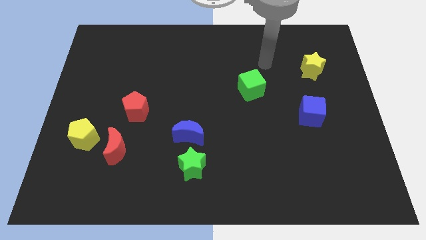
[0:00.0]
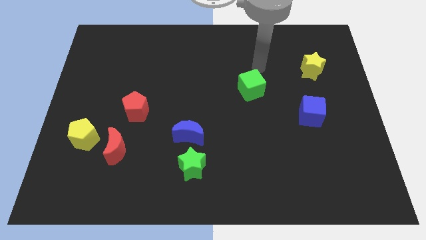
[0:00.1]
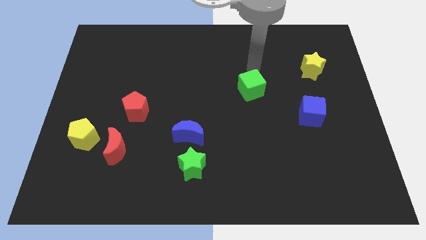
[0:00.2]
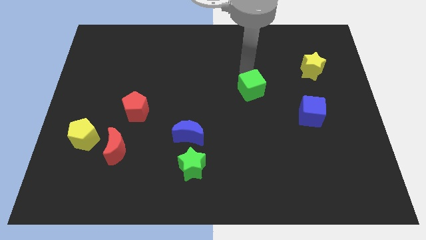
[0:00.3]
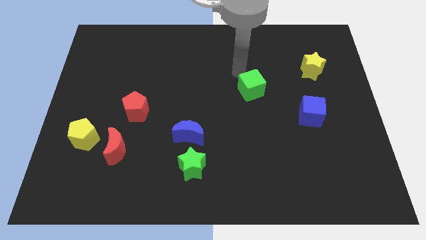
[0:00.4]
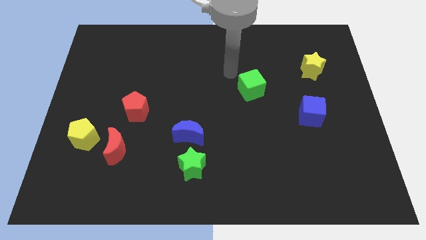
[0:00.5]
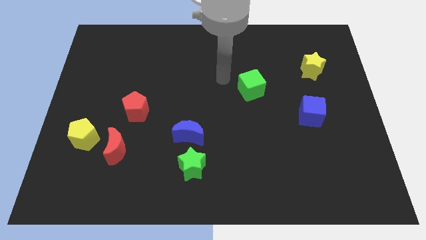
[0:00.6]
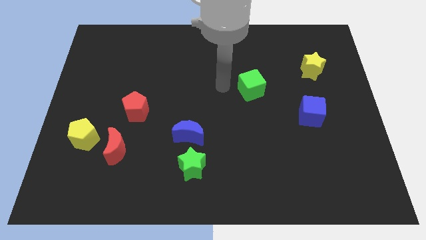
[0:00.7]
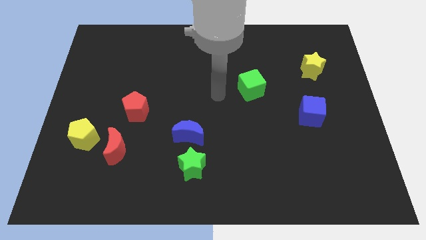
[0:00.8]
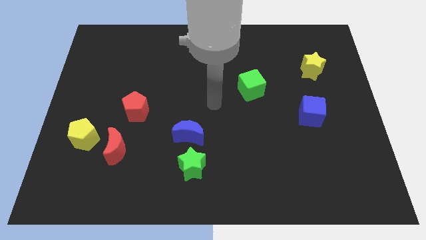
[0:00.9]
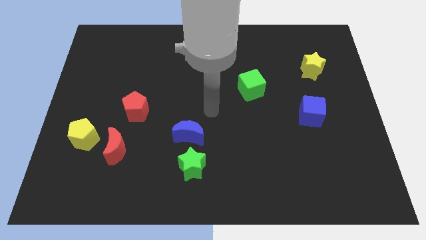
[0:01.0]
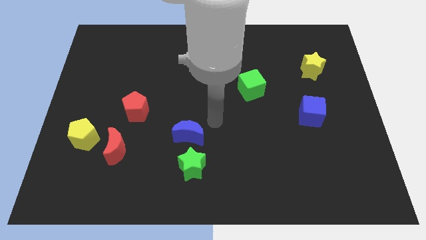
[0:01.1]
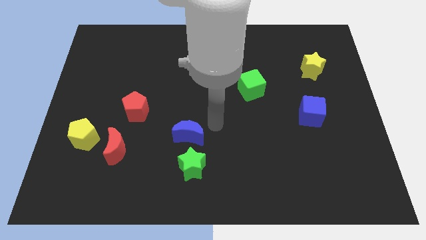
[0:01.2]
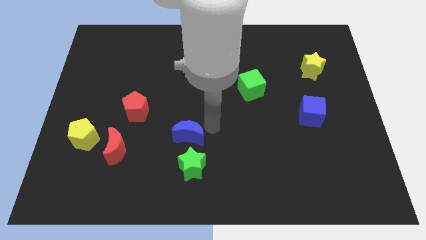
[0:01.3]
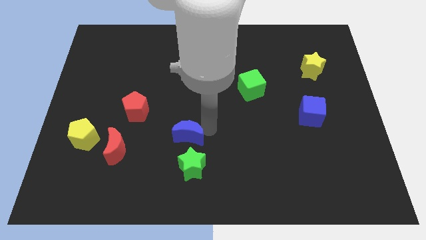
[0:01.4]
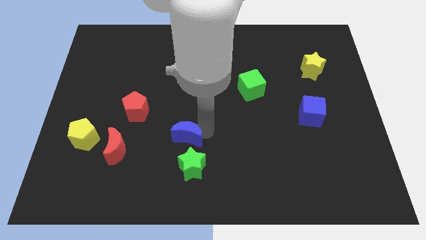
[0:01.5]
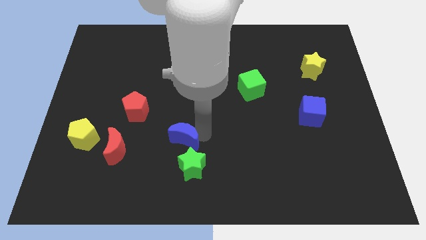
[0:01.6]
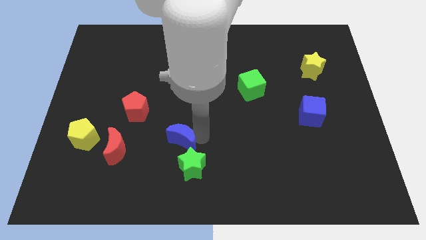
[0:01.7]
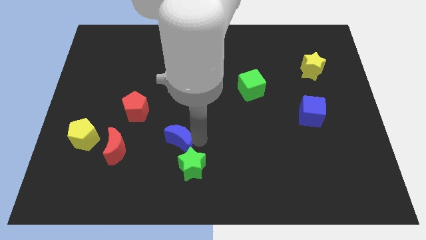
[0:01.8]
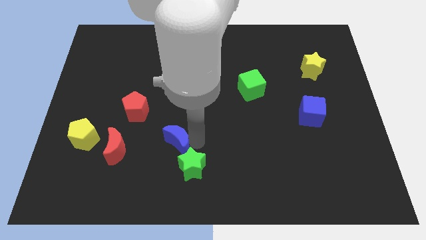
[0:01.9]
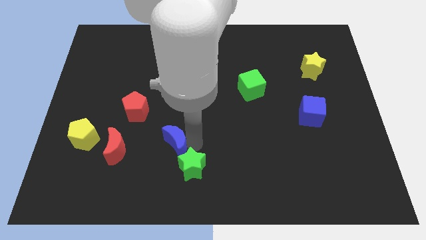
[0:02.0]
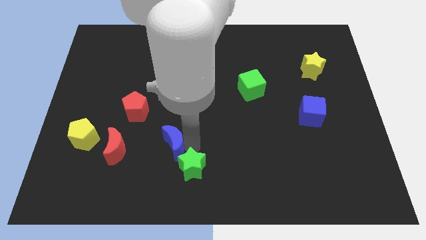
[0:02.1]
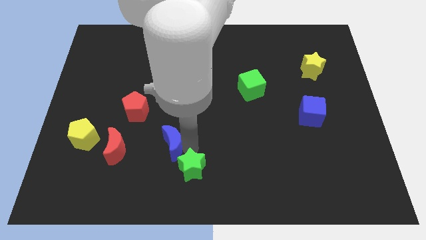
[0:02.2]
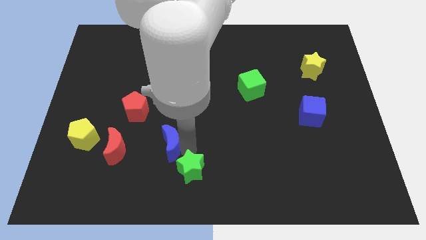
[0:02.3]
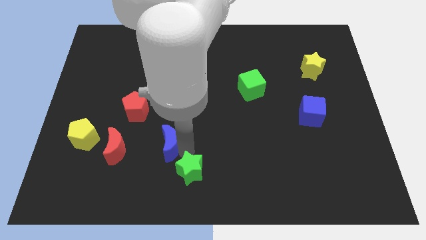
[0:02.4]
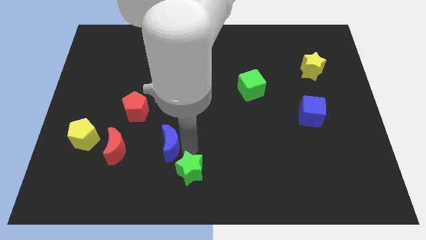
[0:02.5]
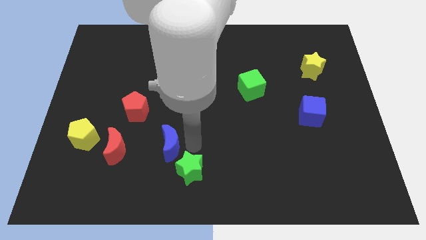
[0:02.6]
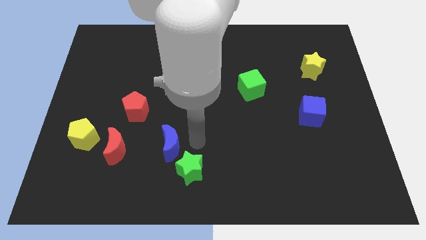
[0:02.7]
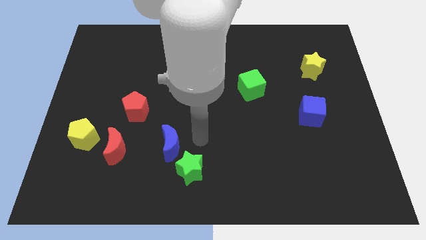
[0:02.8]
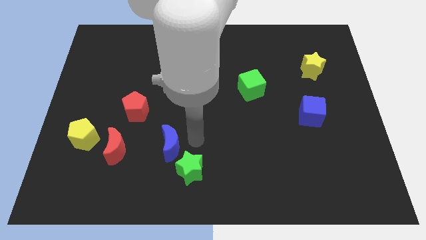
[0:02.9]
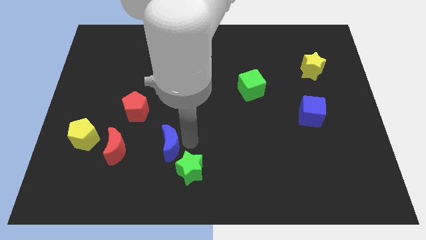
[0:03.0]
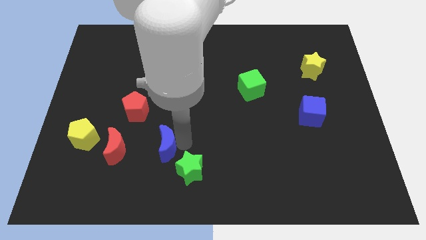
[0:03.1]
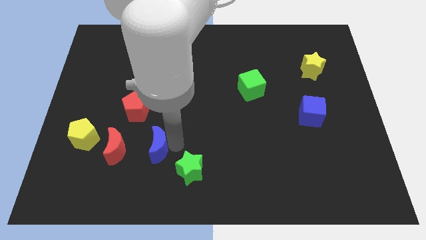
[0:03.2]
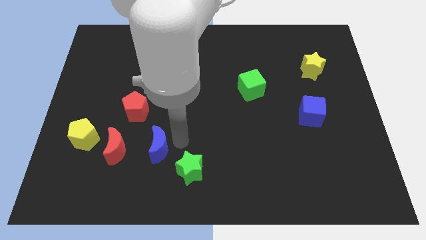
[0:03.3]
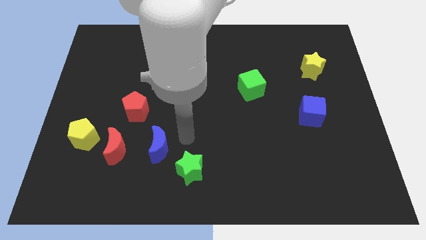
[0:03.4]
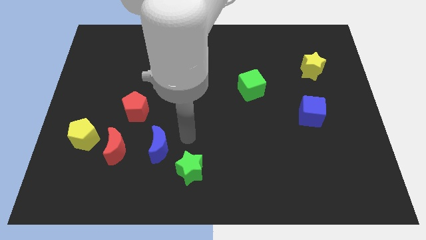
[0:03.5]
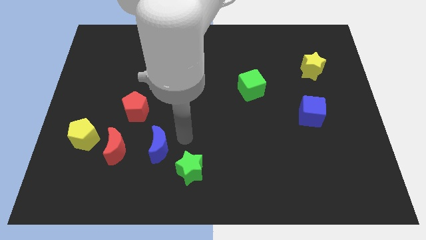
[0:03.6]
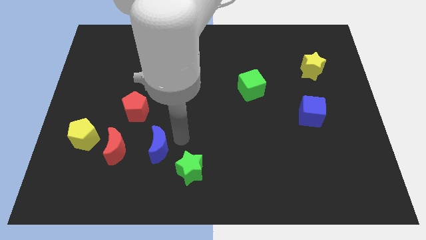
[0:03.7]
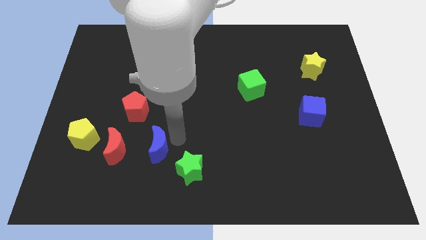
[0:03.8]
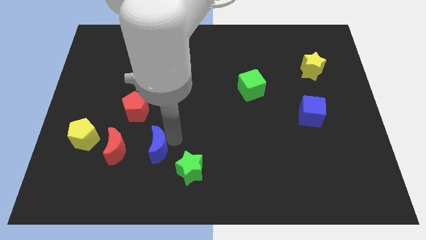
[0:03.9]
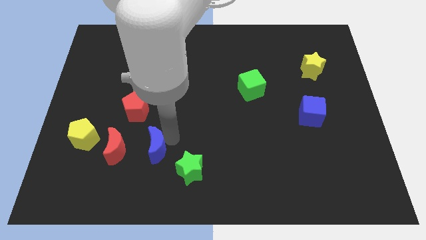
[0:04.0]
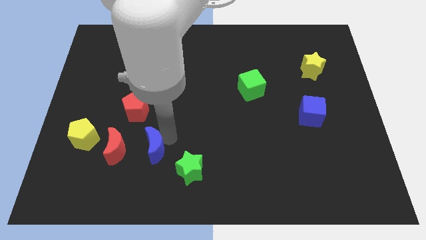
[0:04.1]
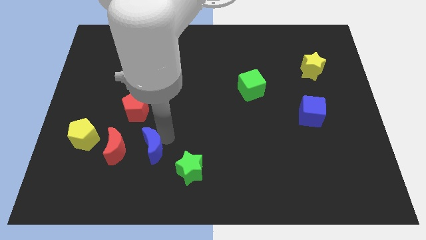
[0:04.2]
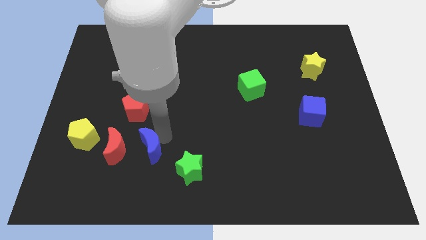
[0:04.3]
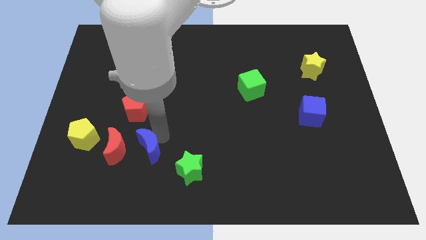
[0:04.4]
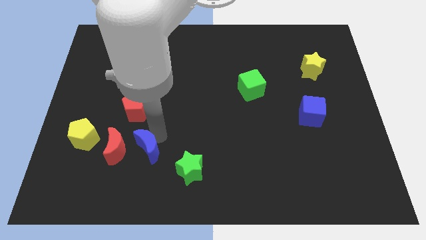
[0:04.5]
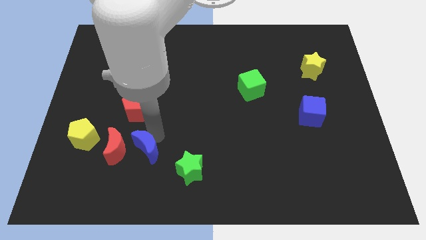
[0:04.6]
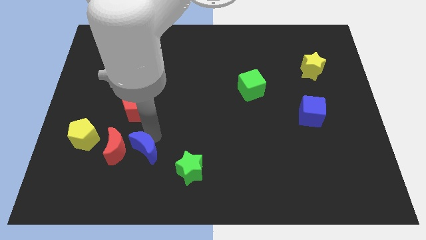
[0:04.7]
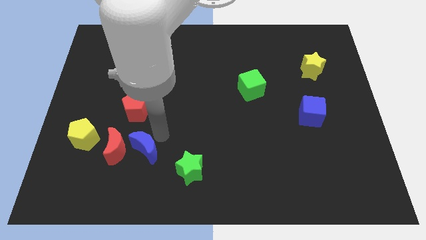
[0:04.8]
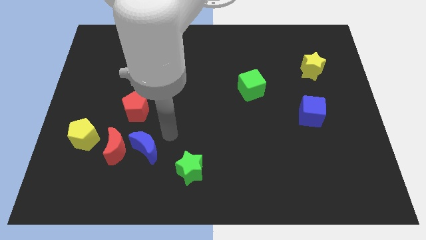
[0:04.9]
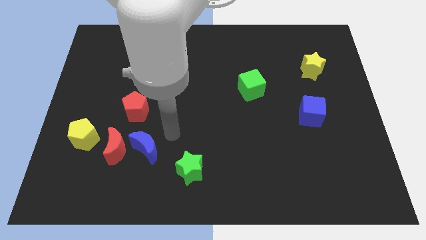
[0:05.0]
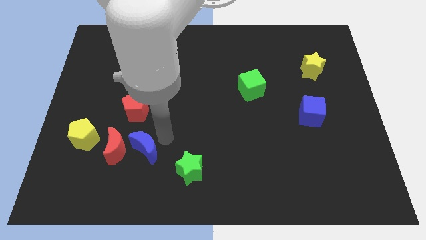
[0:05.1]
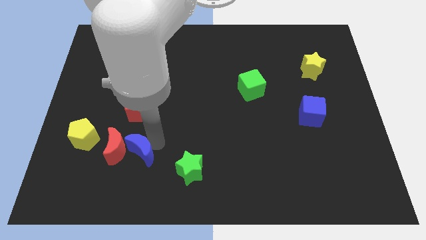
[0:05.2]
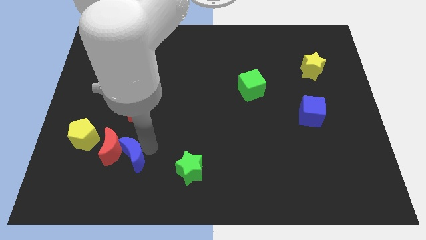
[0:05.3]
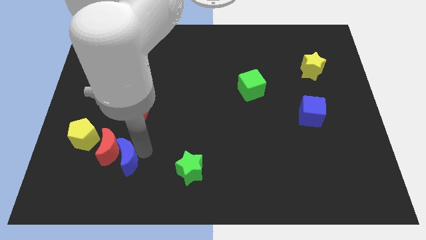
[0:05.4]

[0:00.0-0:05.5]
move the blue moon to the bottom right side of the yellow pentagon
